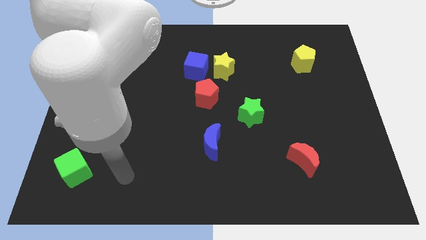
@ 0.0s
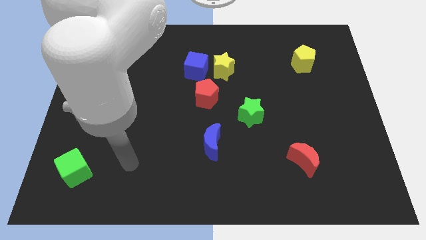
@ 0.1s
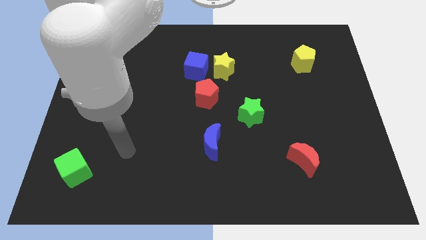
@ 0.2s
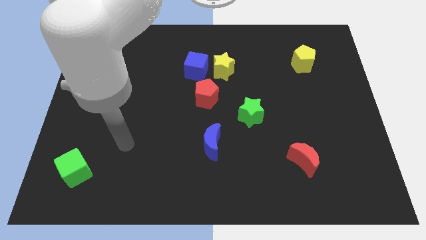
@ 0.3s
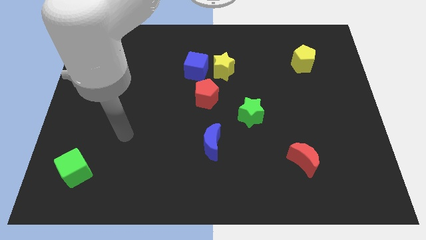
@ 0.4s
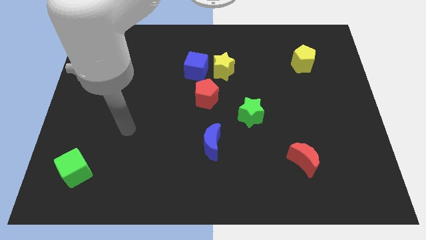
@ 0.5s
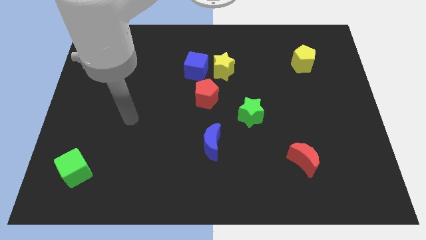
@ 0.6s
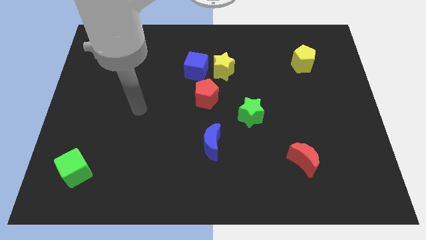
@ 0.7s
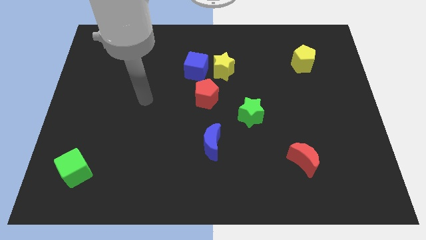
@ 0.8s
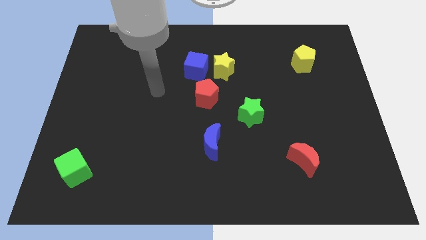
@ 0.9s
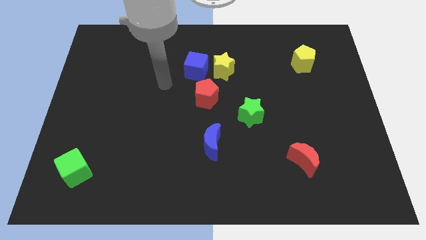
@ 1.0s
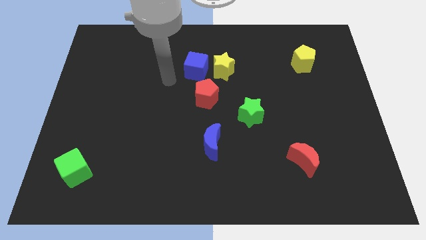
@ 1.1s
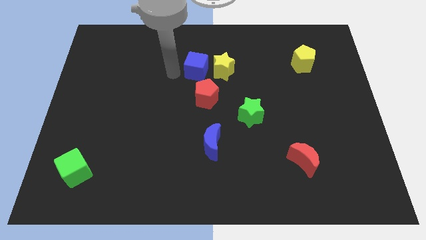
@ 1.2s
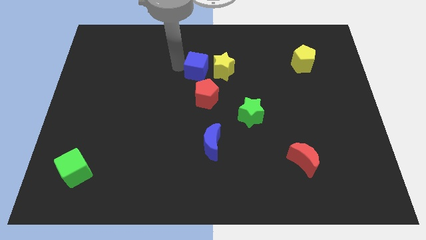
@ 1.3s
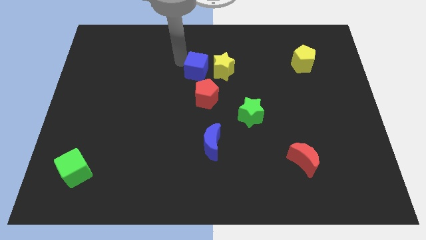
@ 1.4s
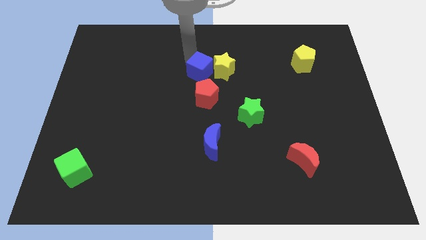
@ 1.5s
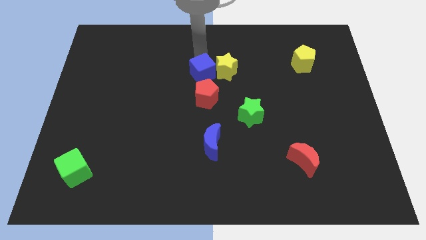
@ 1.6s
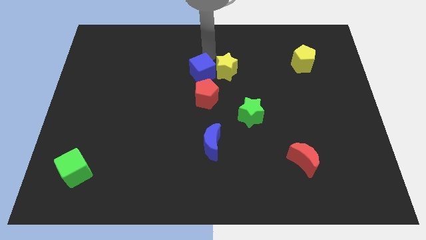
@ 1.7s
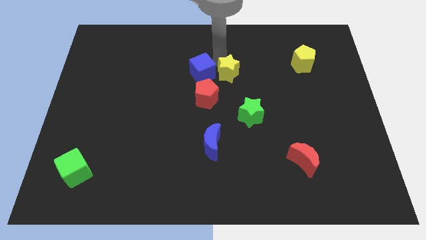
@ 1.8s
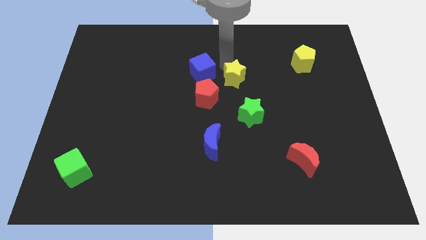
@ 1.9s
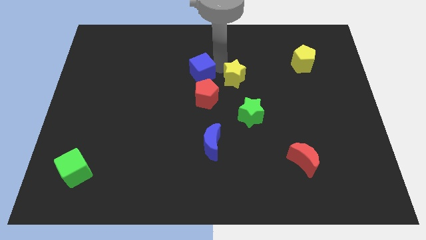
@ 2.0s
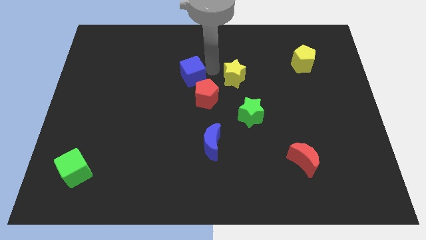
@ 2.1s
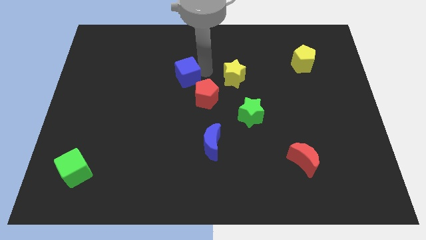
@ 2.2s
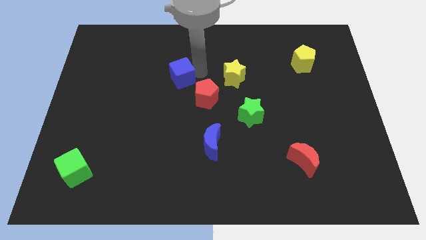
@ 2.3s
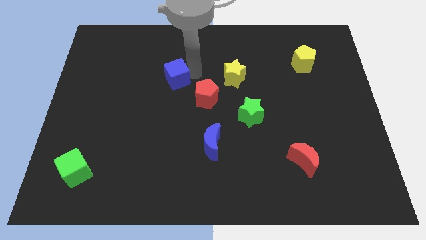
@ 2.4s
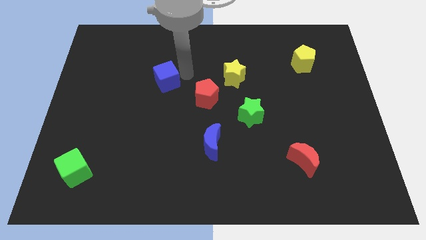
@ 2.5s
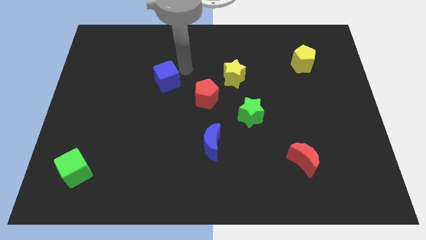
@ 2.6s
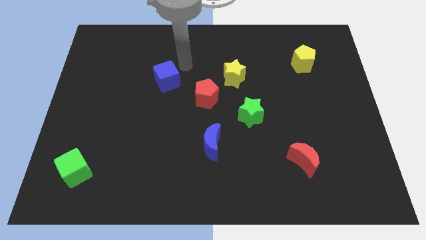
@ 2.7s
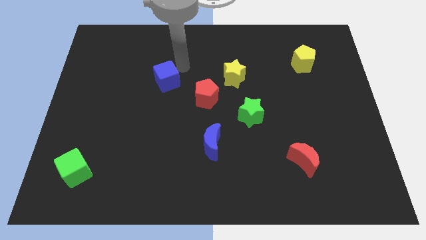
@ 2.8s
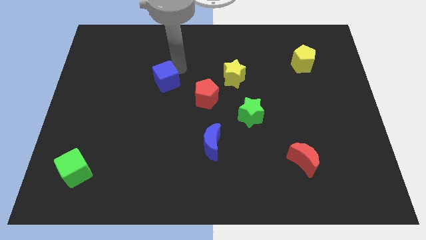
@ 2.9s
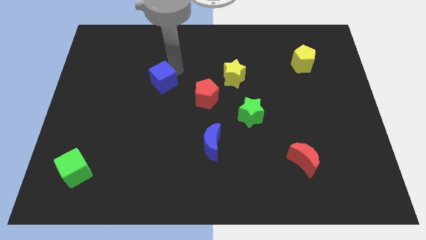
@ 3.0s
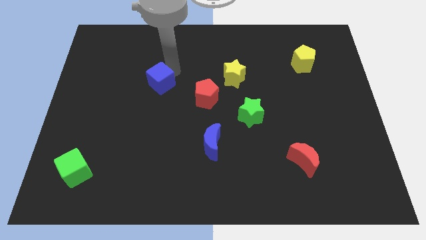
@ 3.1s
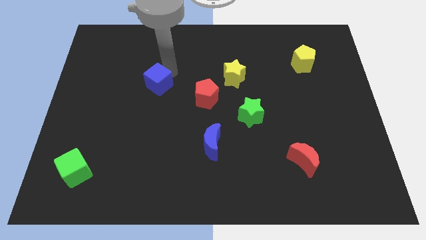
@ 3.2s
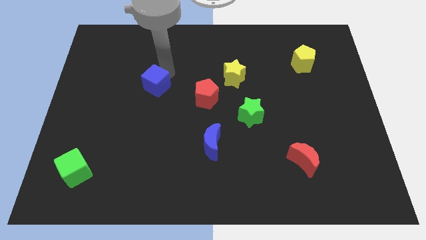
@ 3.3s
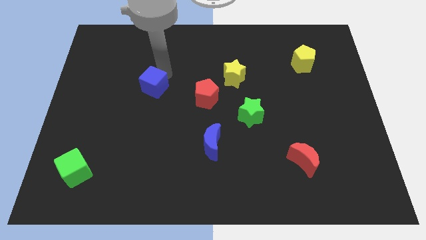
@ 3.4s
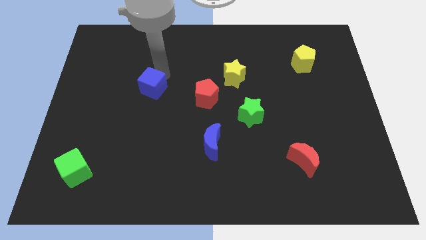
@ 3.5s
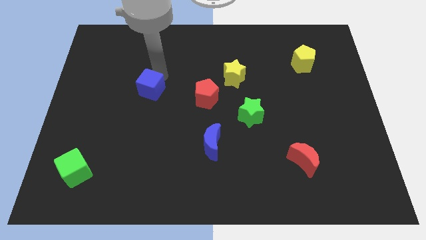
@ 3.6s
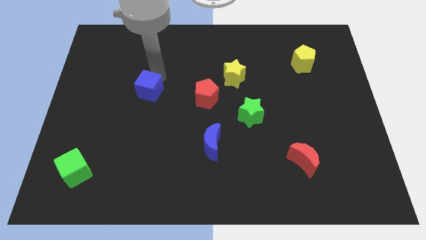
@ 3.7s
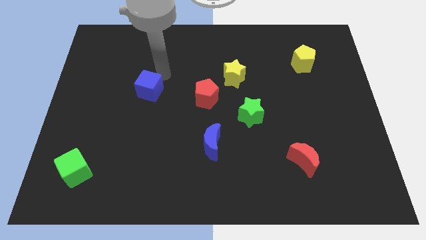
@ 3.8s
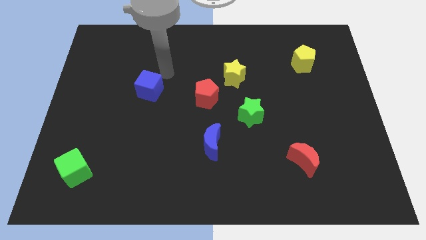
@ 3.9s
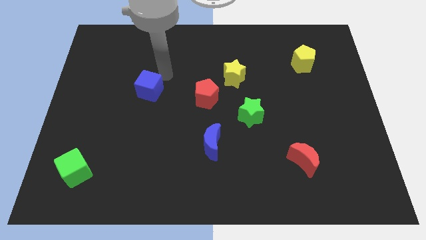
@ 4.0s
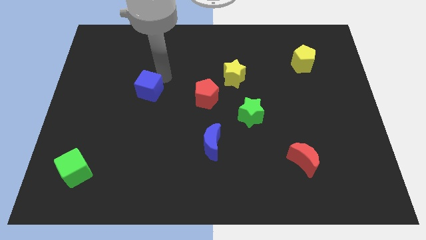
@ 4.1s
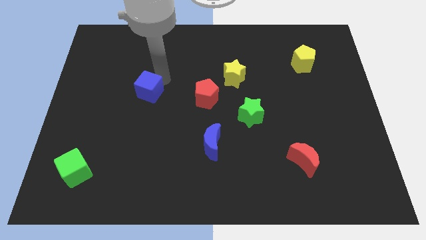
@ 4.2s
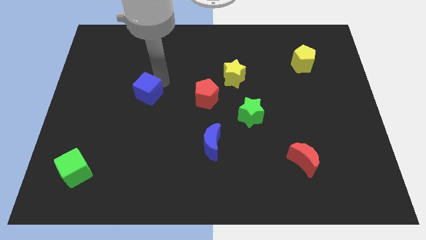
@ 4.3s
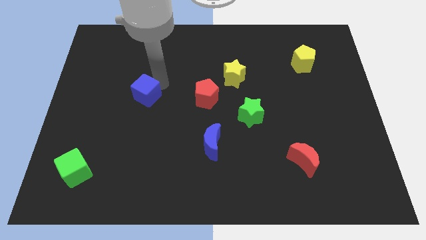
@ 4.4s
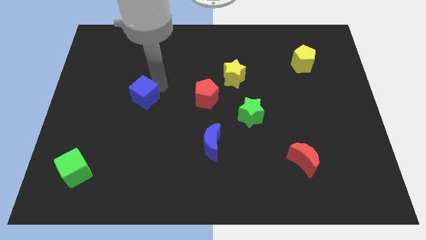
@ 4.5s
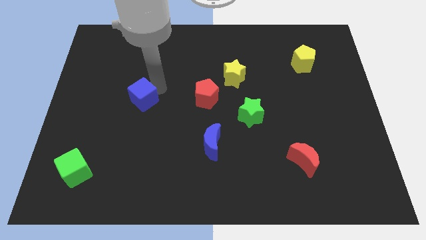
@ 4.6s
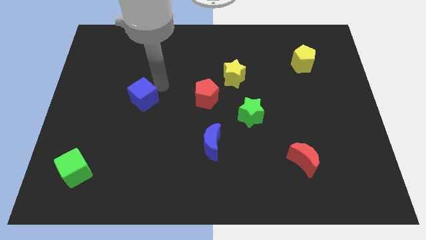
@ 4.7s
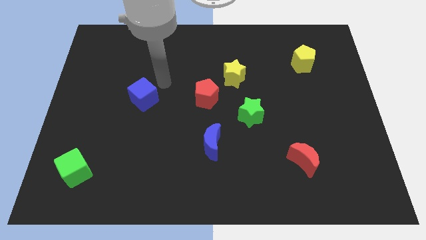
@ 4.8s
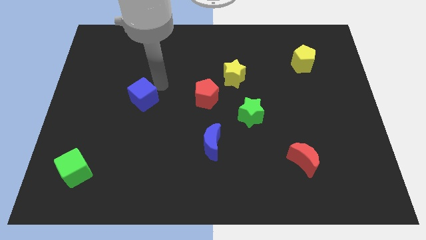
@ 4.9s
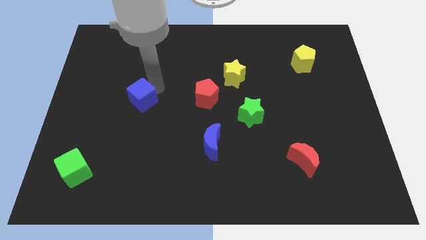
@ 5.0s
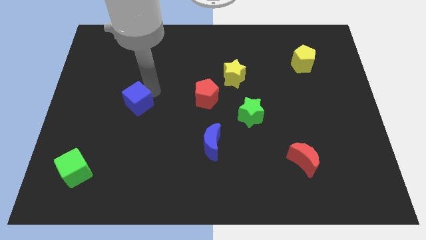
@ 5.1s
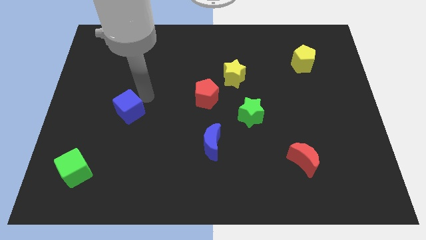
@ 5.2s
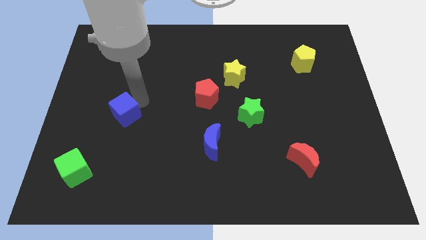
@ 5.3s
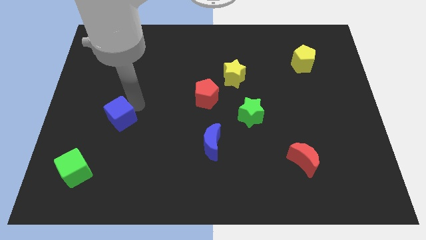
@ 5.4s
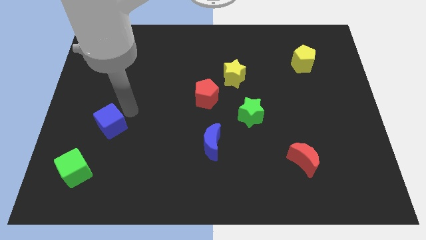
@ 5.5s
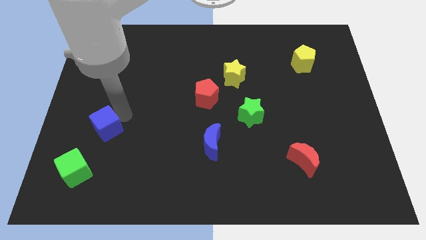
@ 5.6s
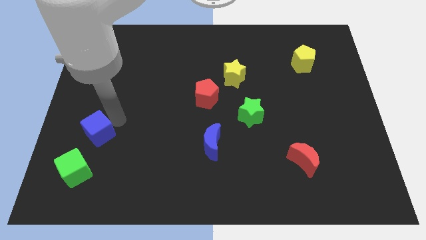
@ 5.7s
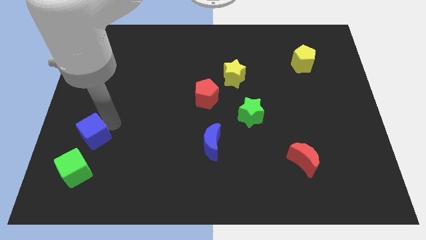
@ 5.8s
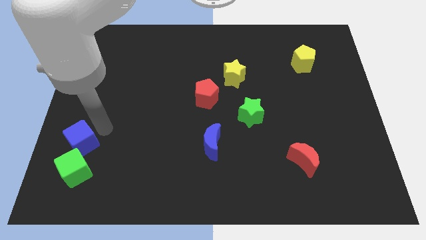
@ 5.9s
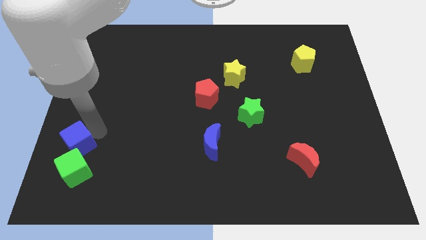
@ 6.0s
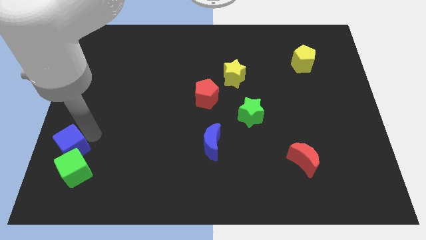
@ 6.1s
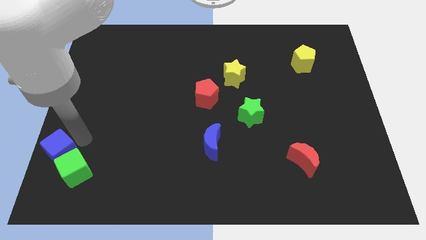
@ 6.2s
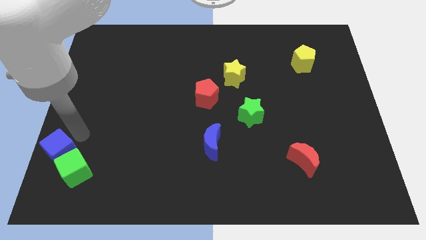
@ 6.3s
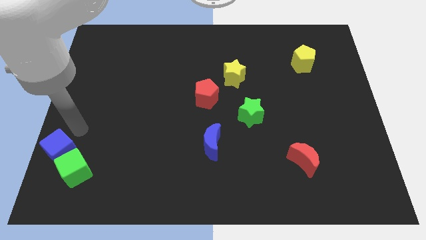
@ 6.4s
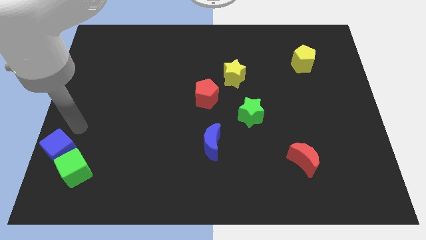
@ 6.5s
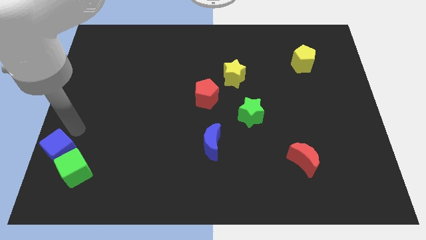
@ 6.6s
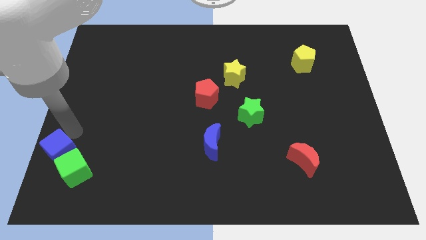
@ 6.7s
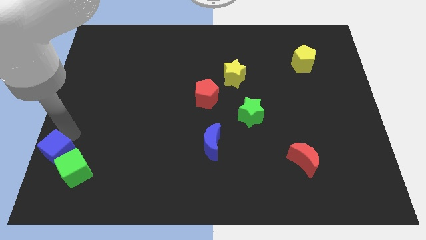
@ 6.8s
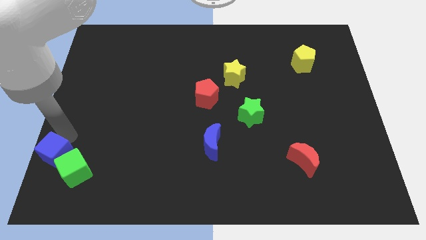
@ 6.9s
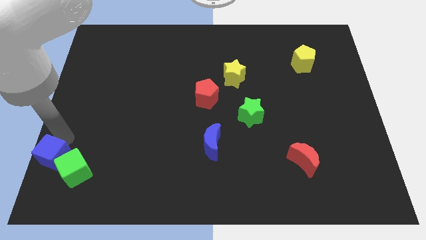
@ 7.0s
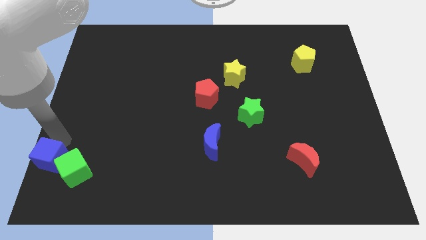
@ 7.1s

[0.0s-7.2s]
slide the blue cube to the bottom left of the board

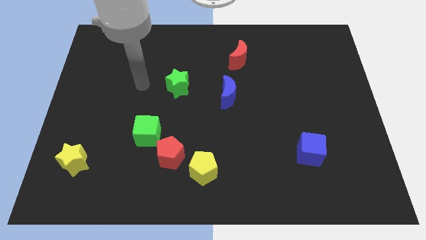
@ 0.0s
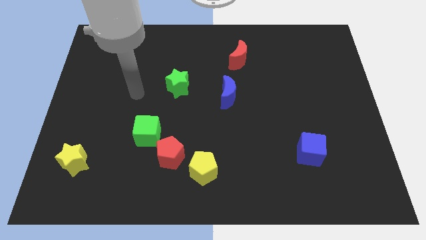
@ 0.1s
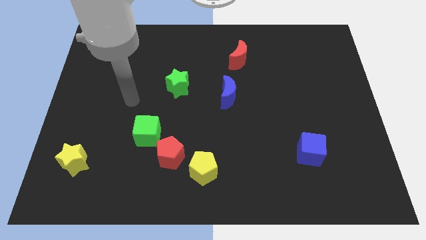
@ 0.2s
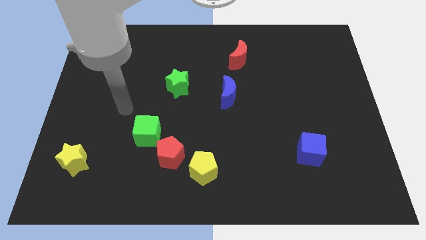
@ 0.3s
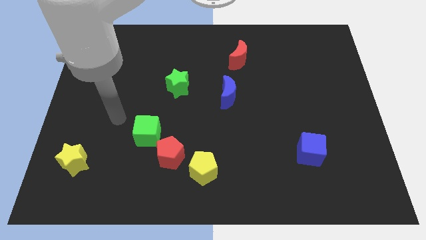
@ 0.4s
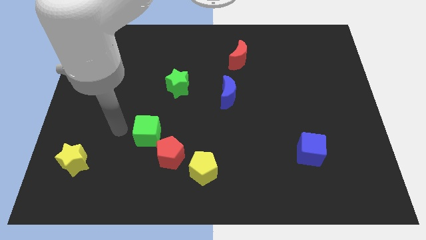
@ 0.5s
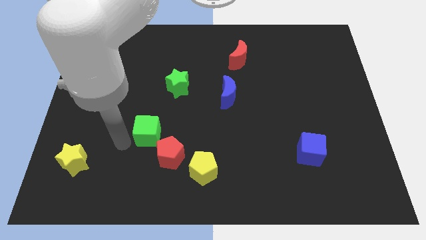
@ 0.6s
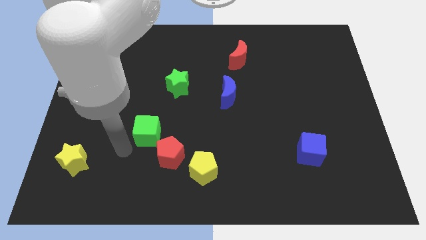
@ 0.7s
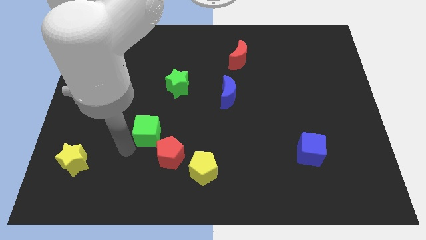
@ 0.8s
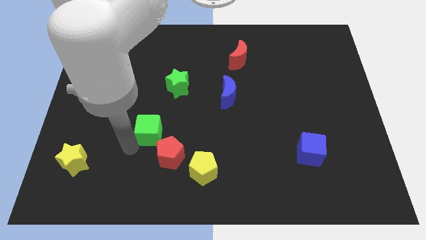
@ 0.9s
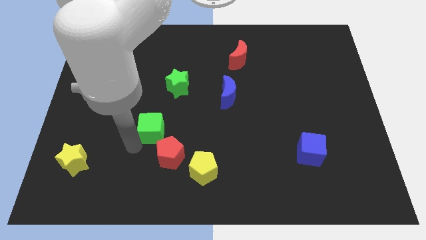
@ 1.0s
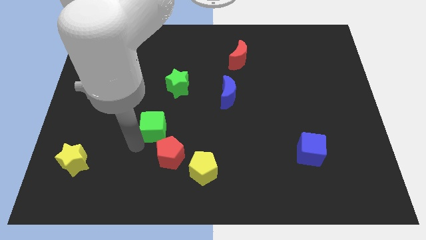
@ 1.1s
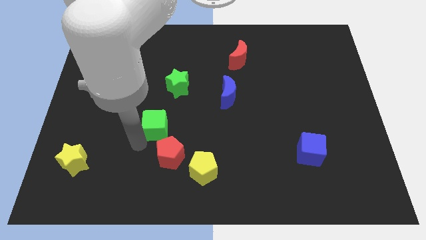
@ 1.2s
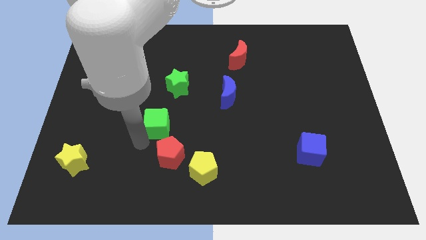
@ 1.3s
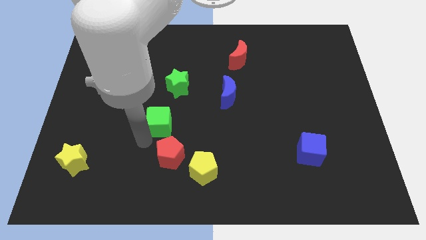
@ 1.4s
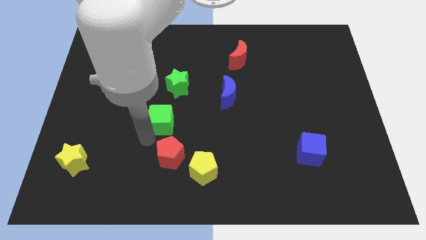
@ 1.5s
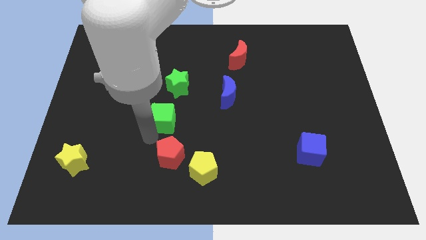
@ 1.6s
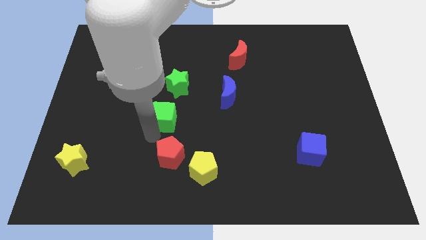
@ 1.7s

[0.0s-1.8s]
push the green cube to the middle
